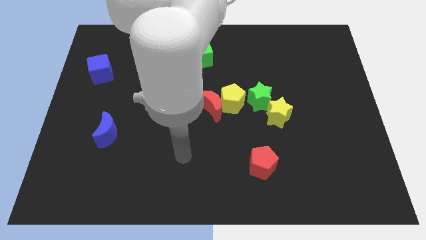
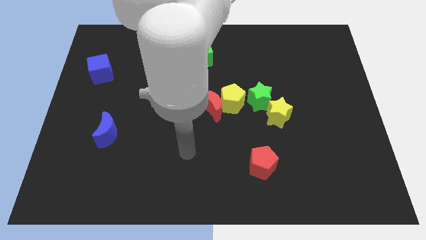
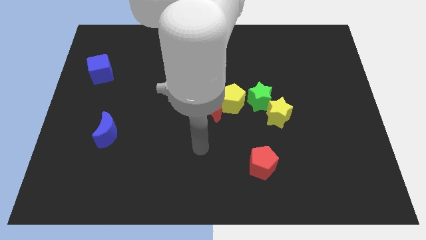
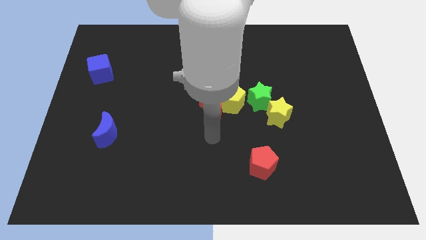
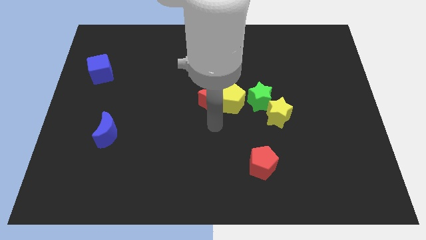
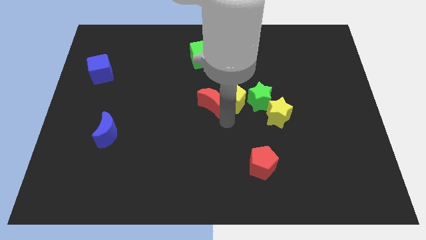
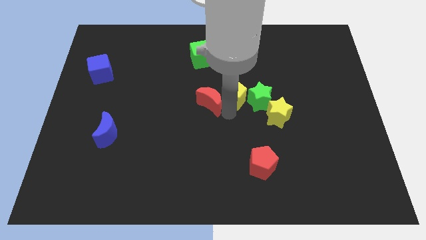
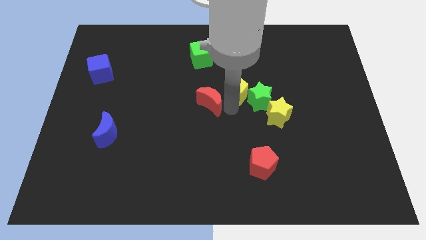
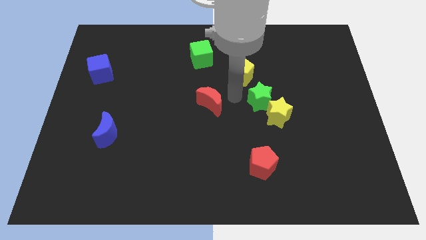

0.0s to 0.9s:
separate the red moon from the yellow pentagon

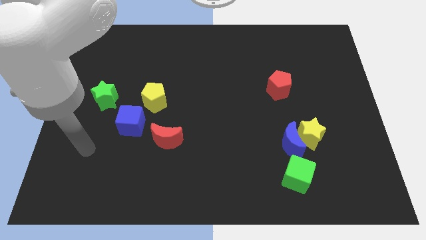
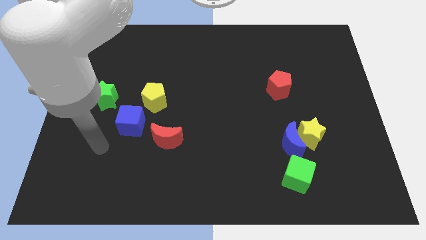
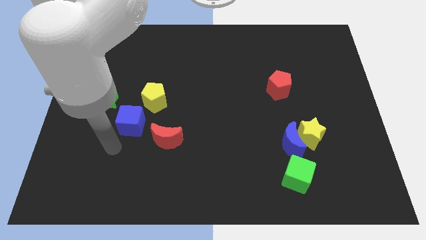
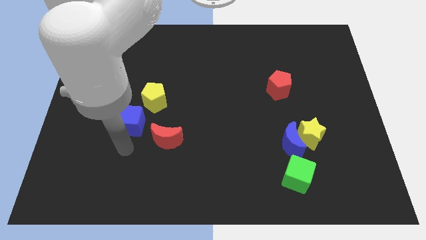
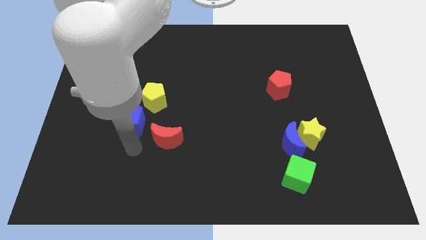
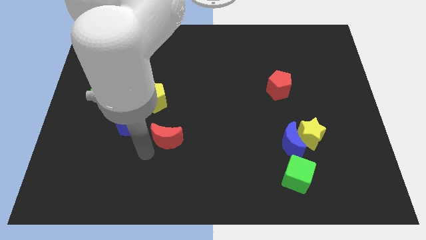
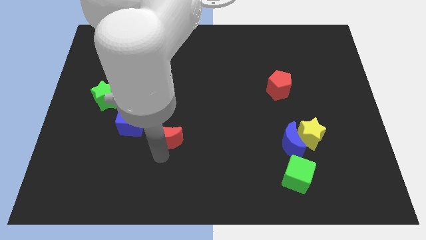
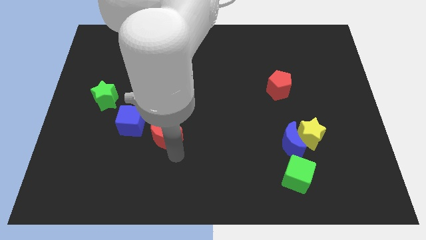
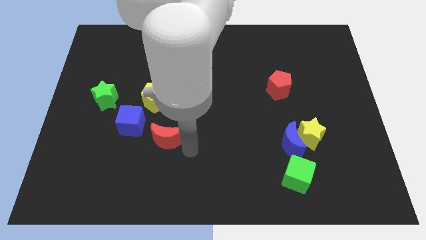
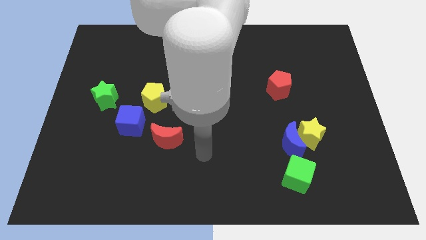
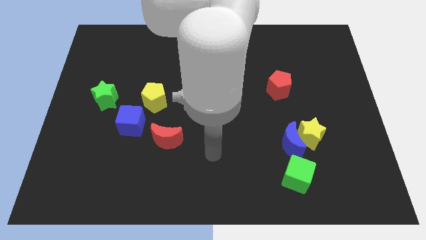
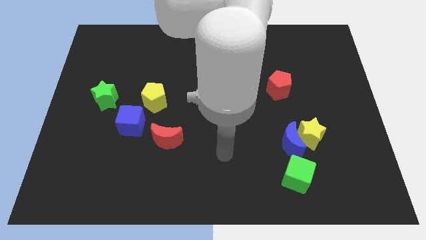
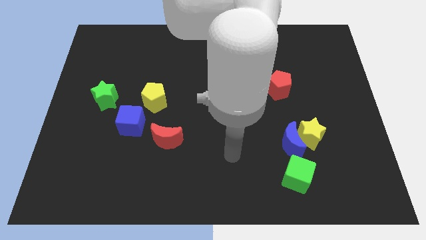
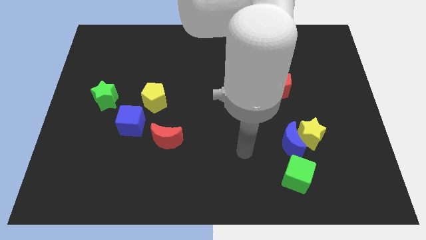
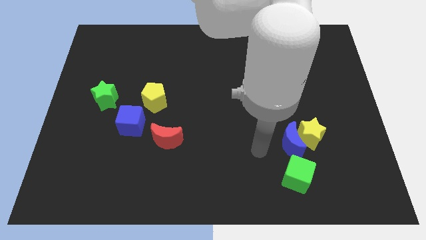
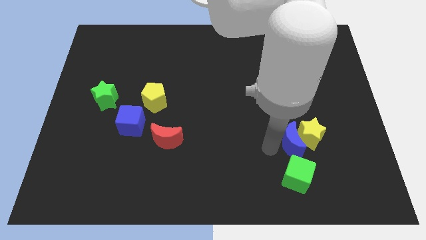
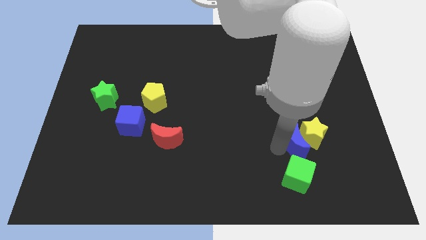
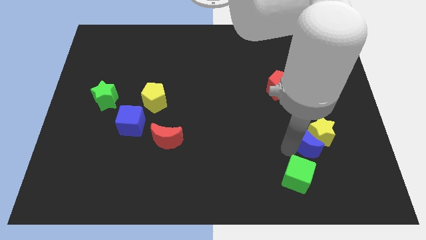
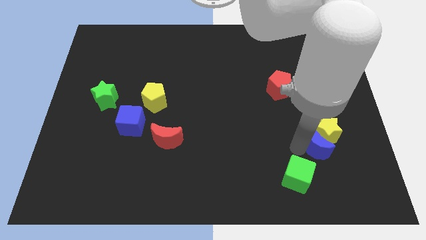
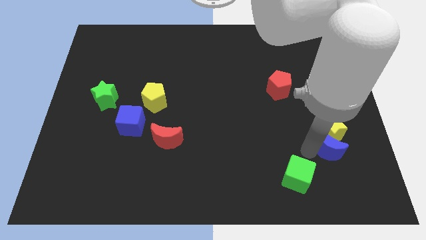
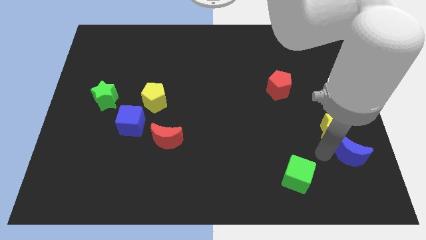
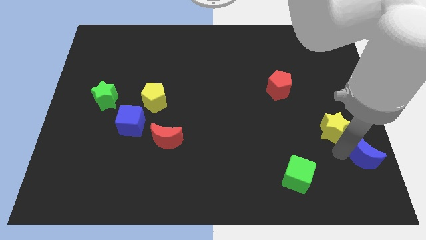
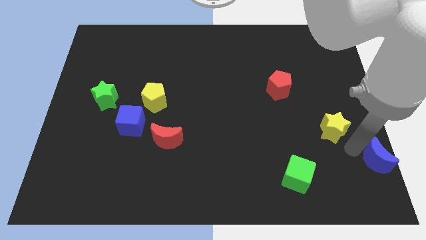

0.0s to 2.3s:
move the yellow star away from the blue moon

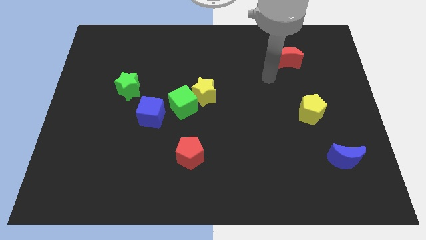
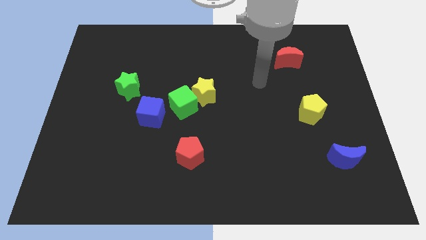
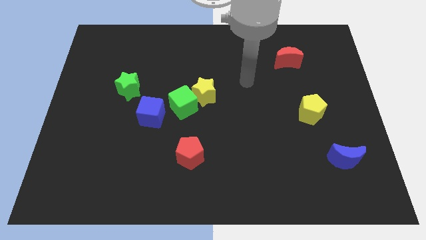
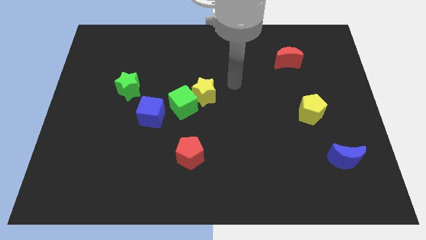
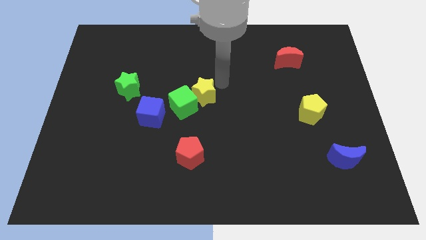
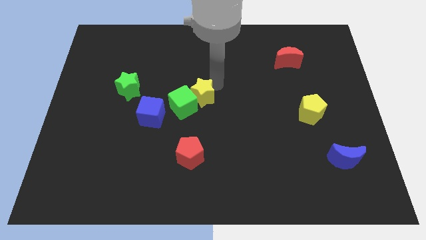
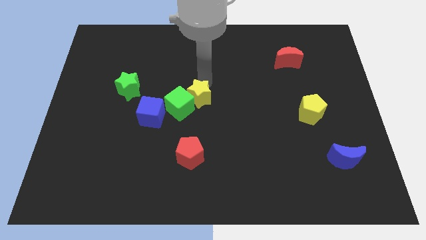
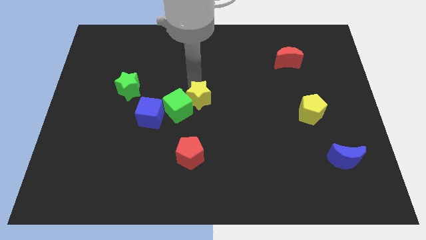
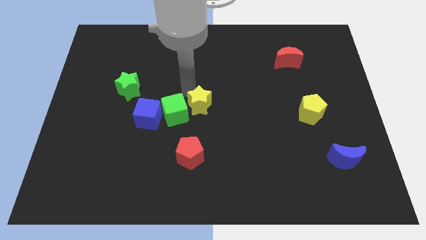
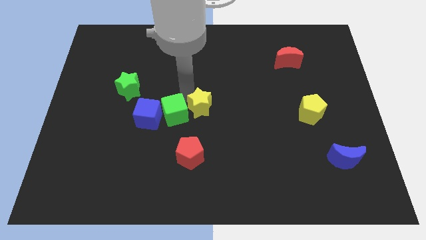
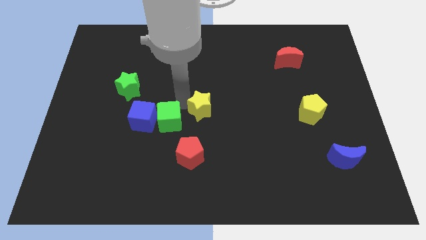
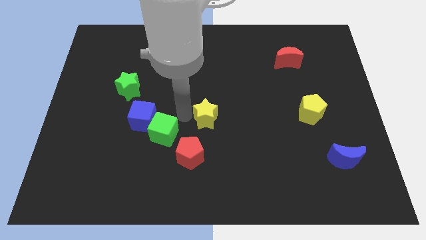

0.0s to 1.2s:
separate the yellow star from the green cube

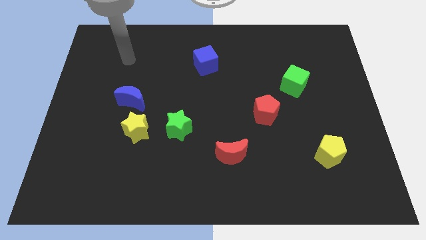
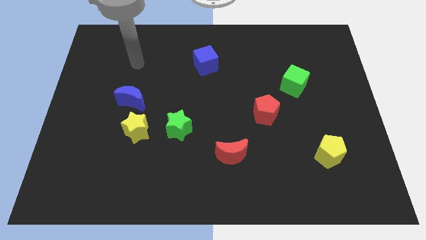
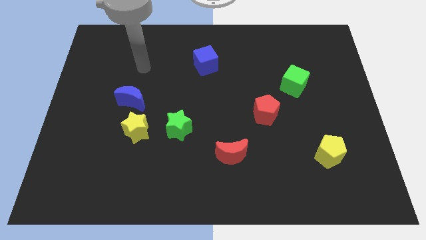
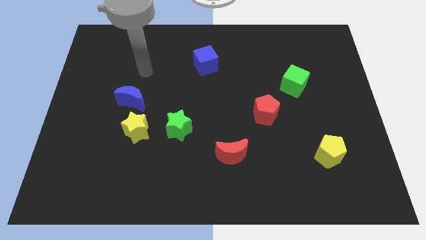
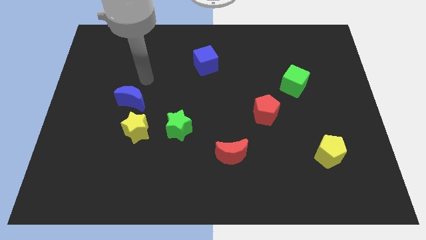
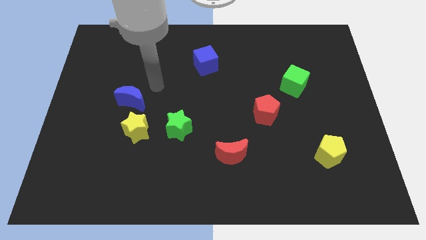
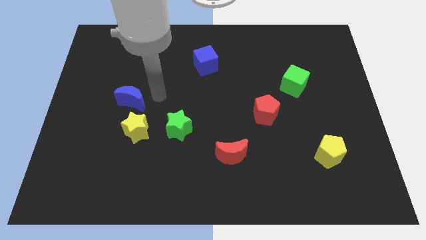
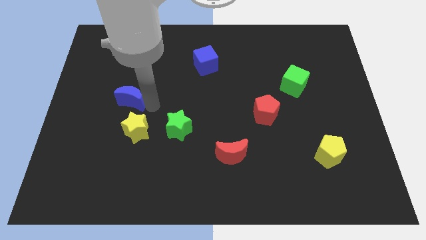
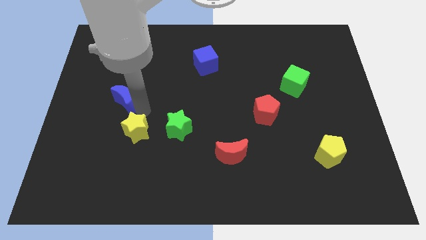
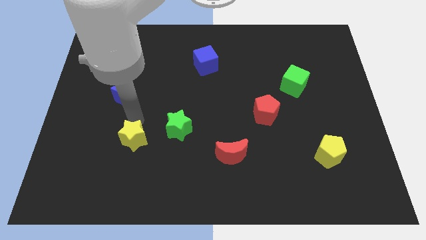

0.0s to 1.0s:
pull the blue moon apart from the yellow star

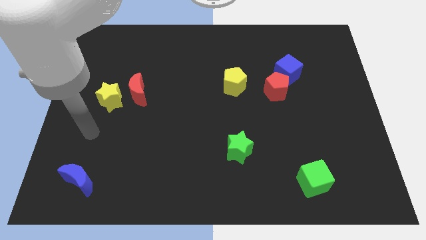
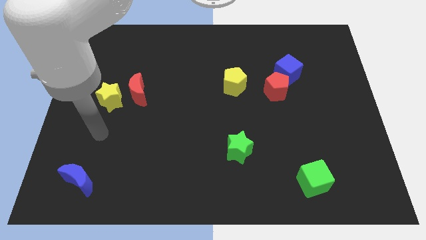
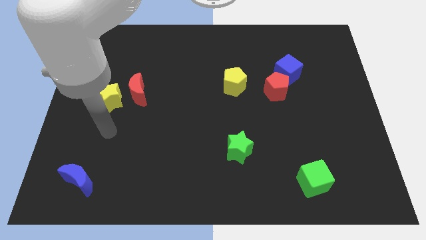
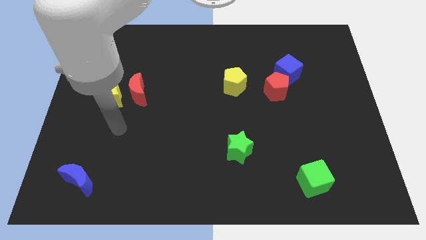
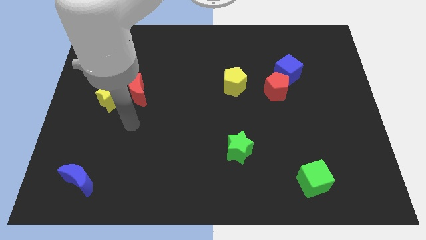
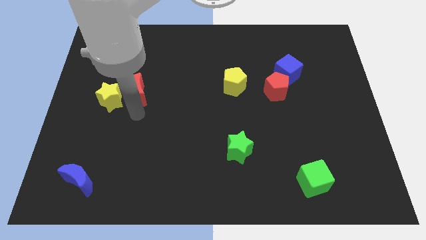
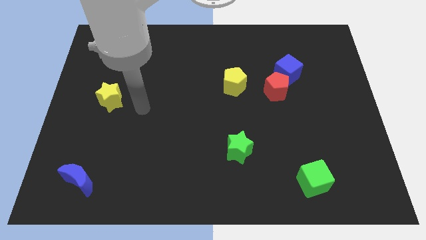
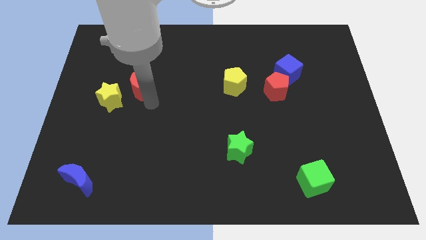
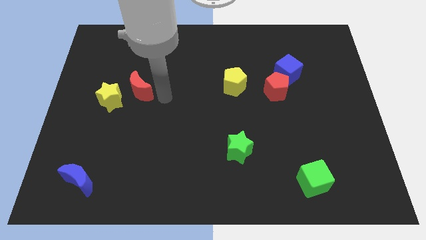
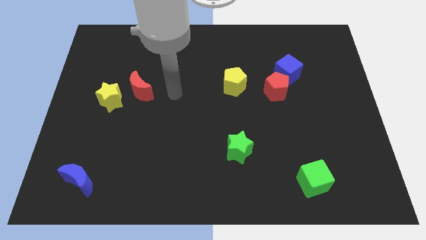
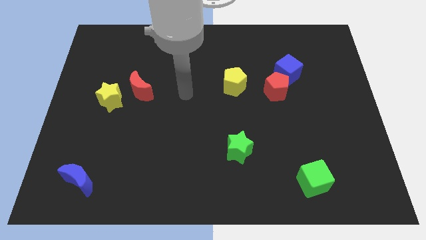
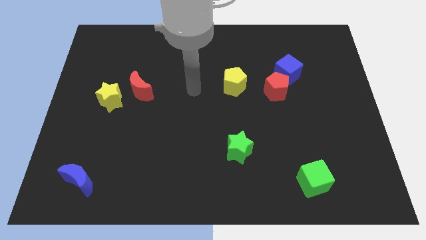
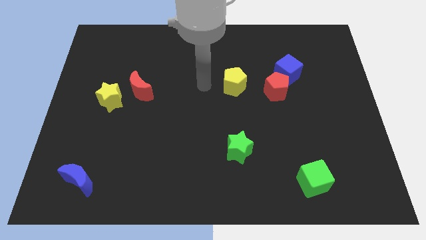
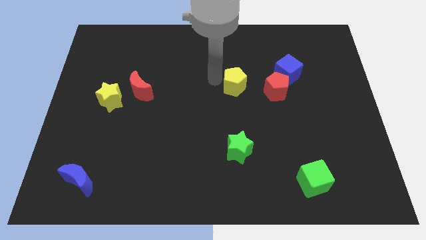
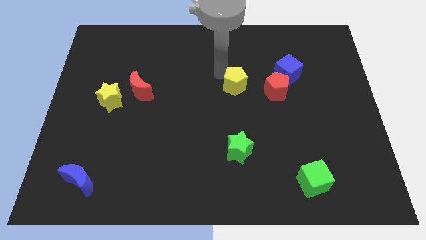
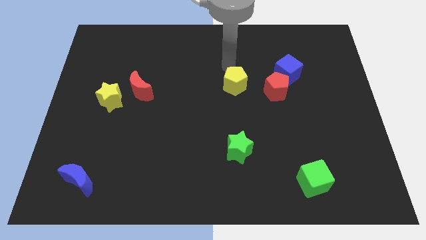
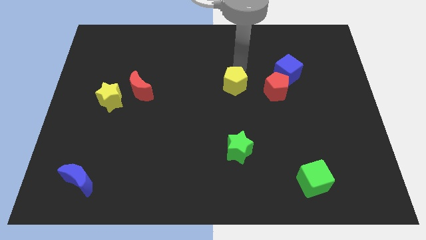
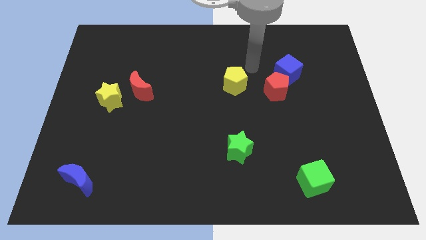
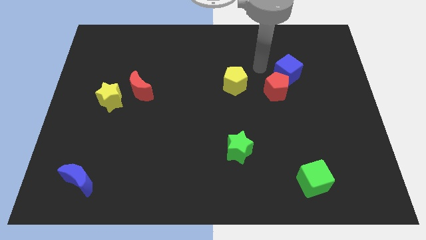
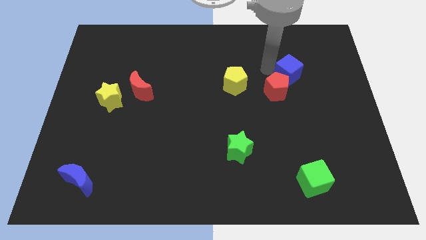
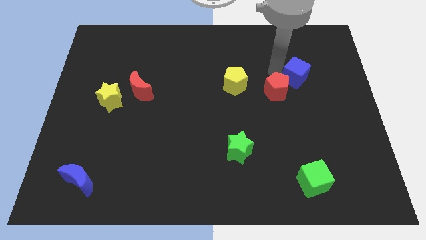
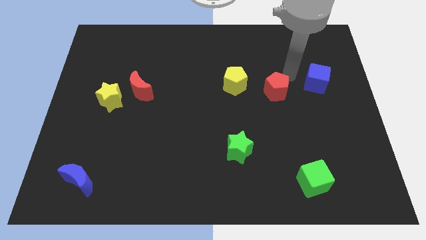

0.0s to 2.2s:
pull the red pentagon apart from the blue cube

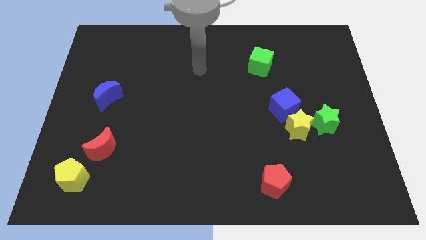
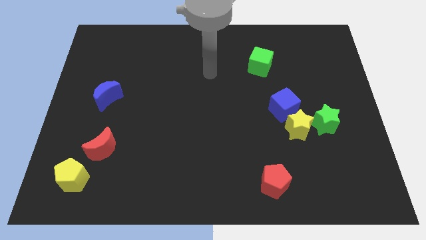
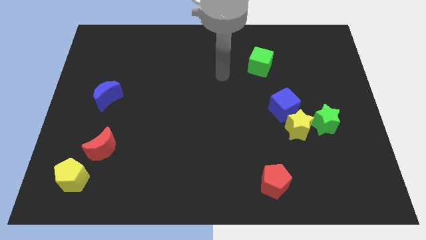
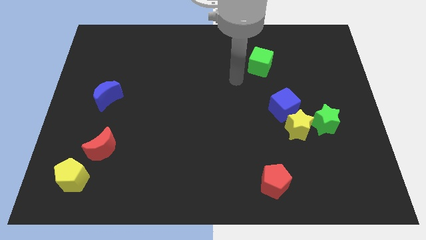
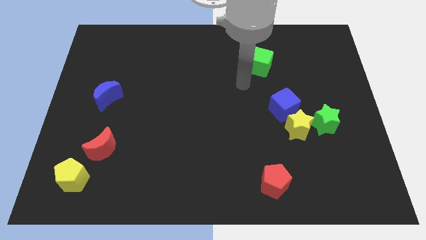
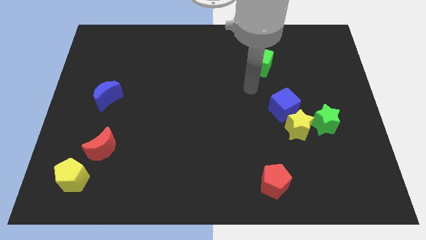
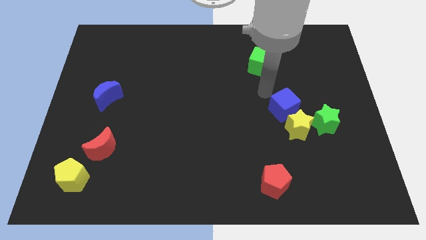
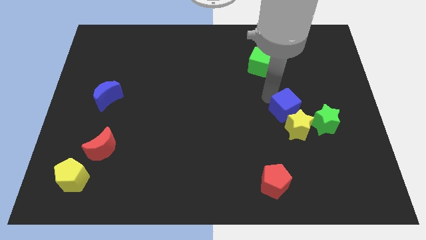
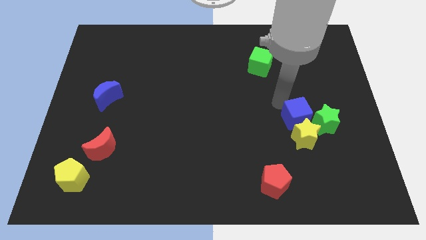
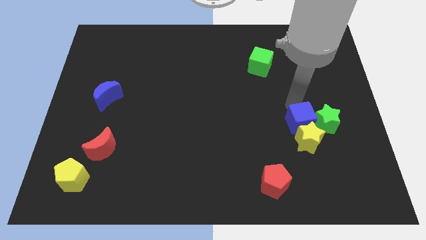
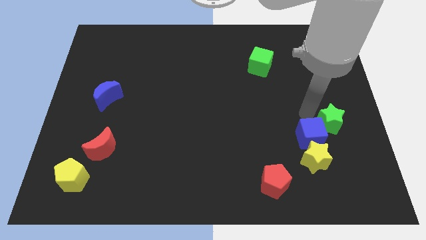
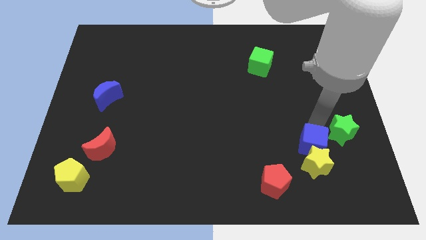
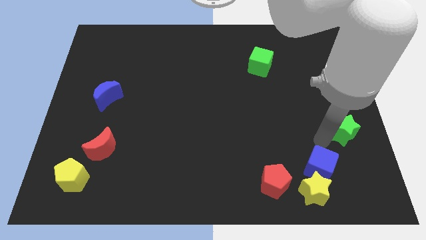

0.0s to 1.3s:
pull the yellow star apart from the green star and blue cube

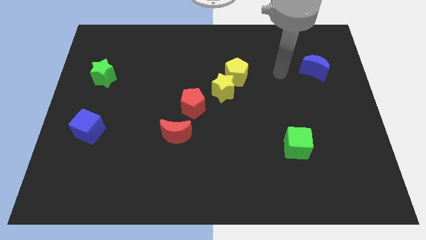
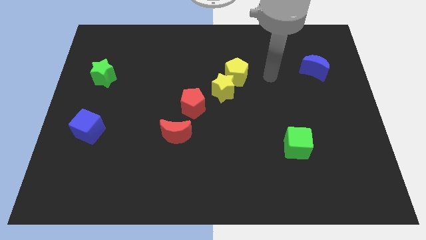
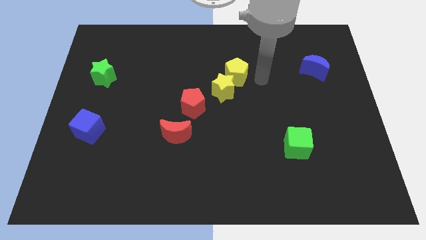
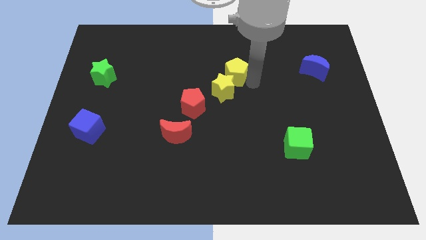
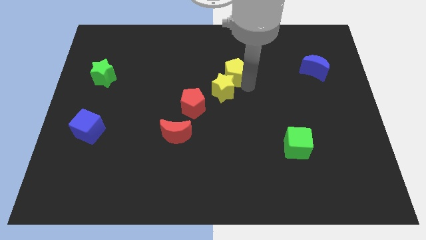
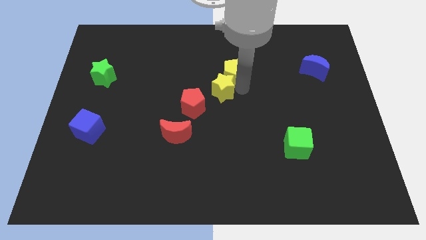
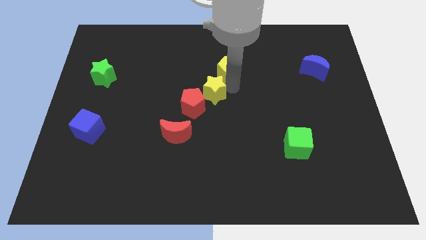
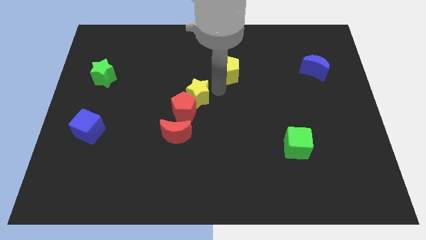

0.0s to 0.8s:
separate the yellow pentagon from the yellow star
